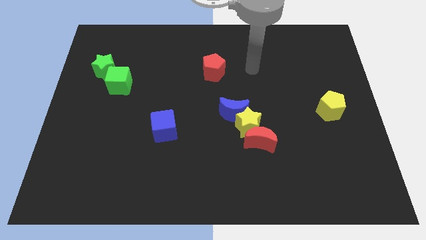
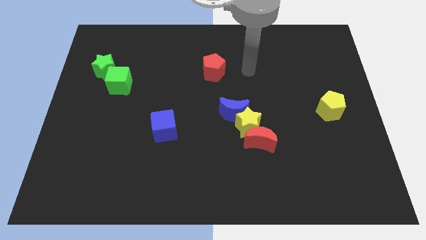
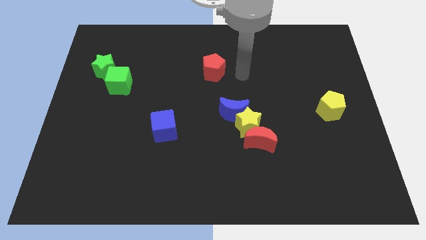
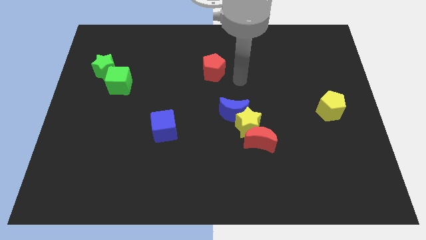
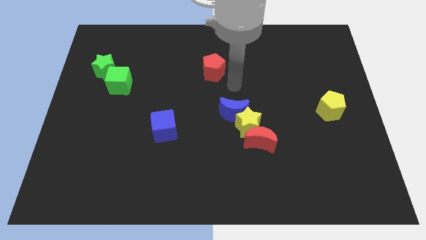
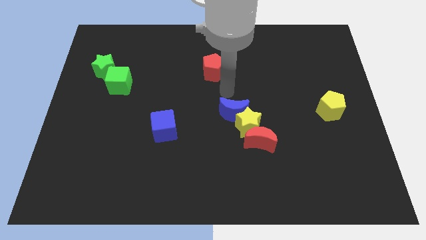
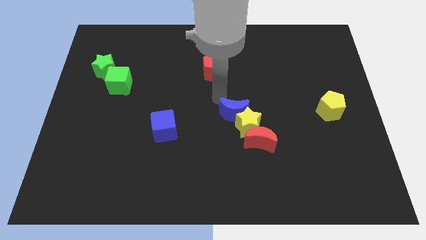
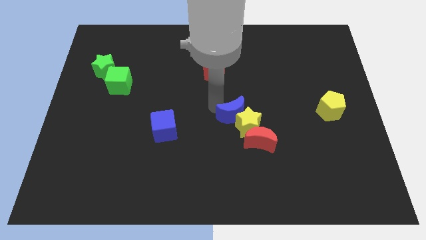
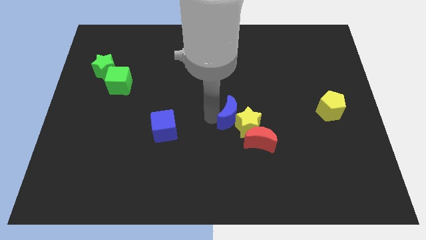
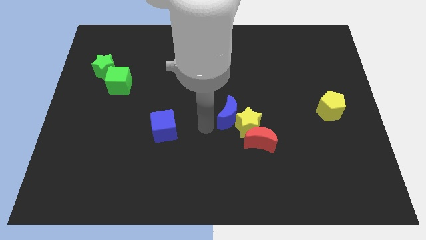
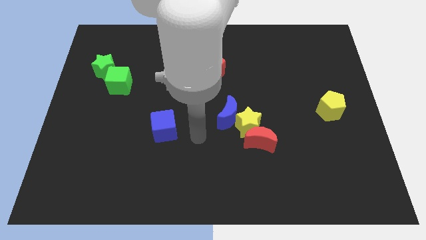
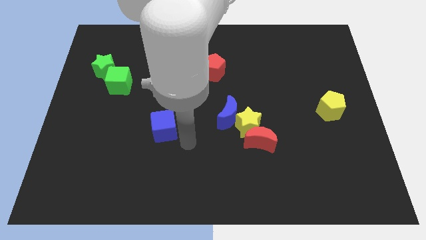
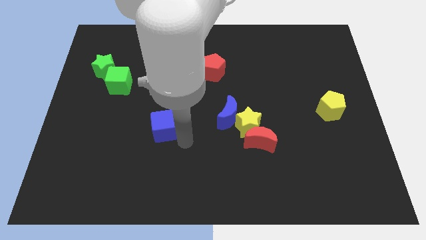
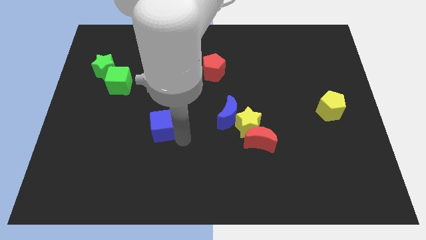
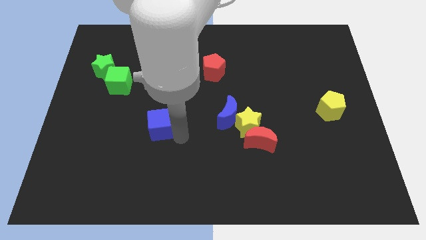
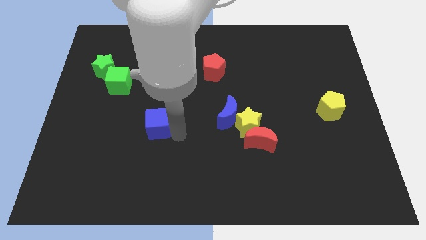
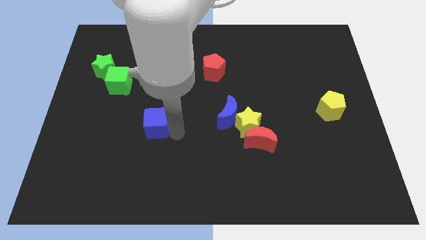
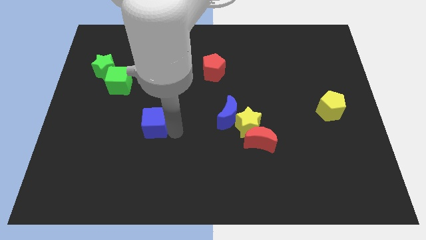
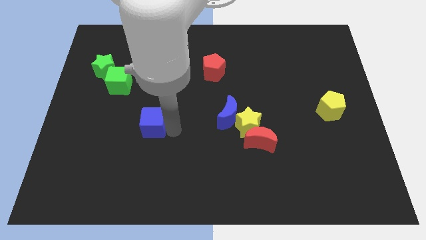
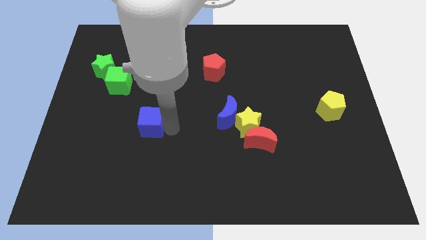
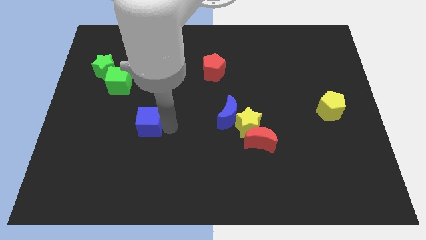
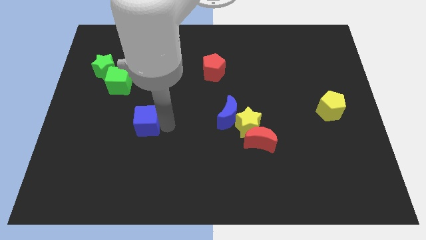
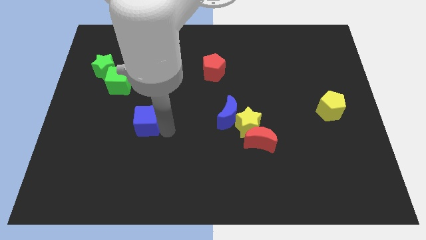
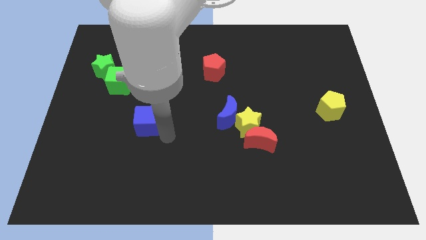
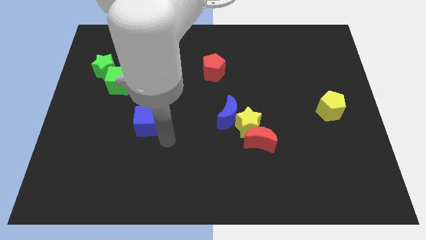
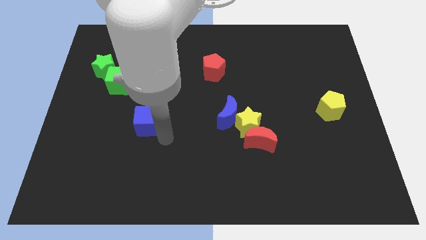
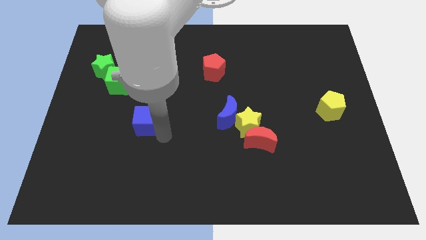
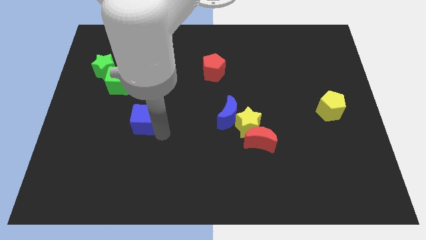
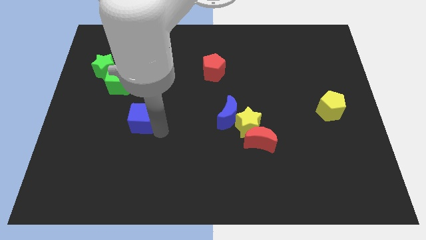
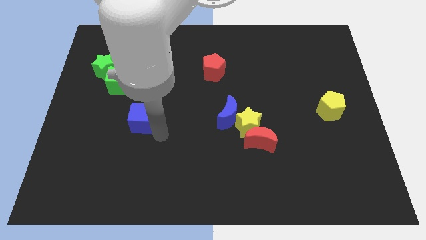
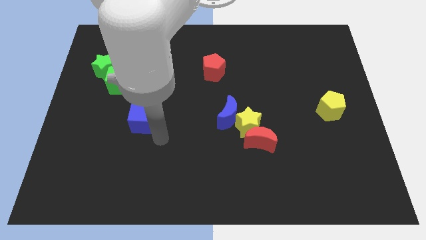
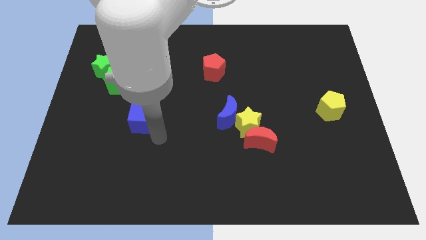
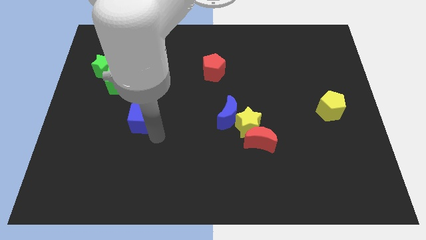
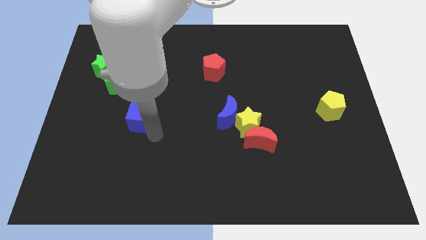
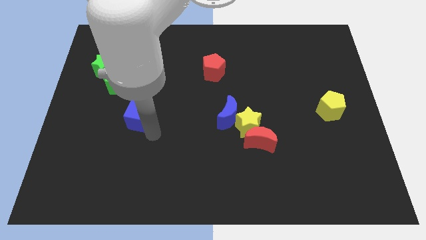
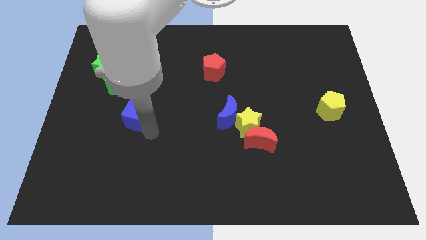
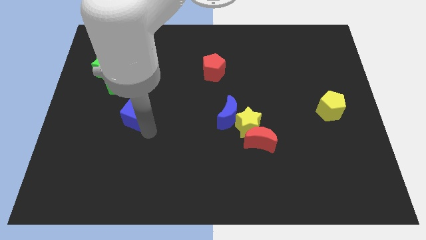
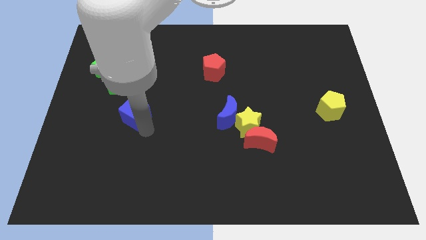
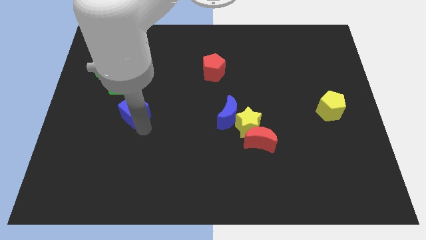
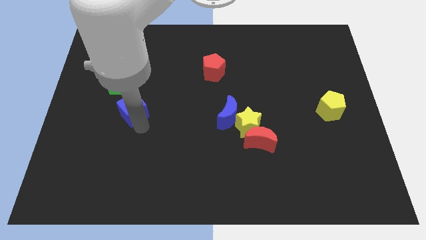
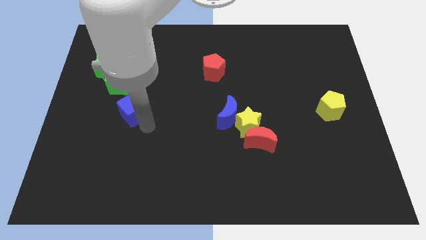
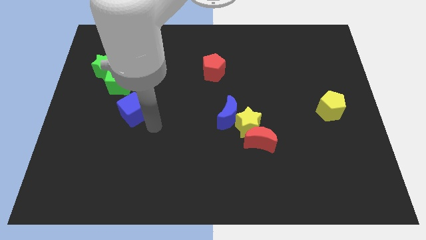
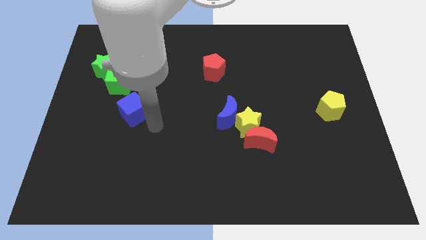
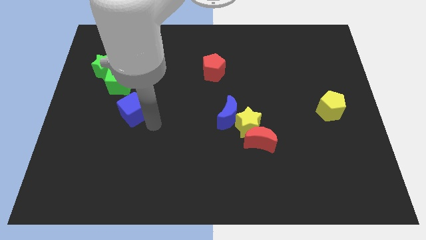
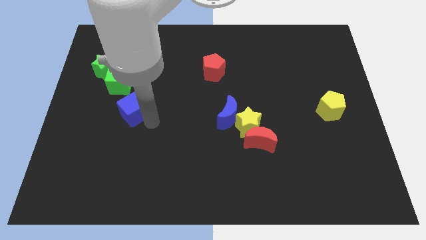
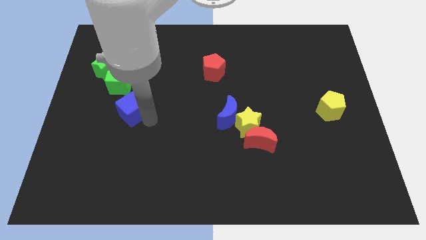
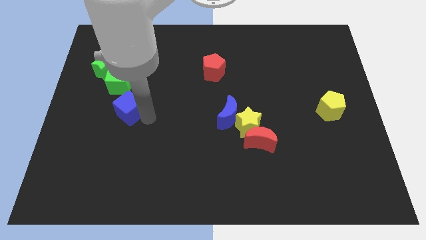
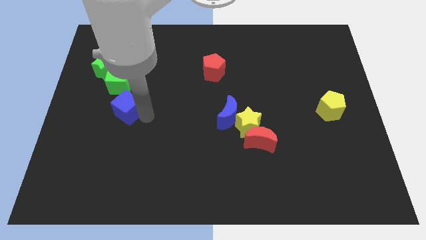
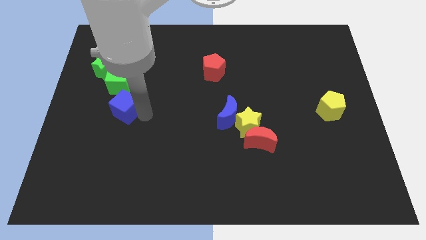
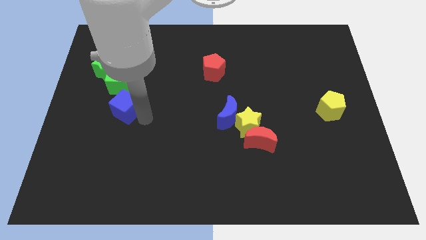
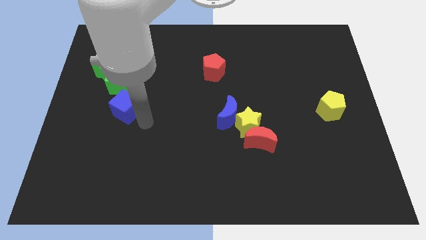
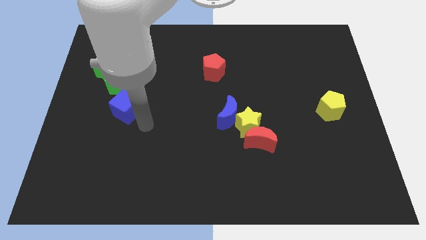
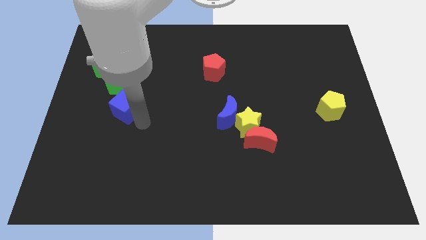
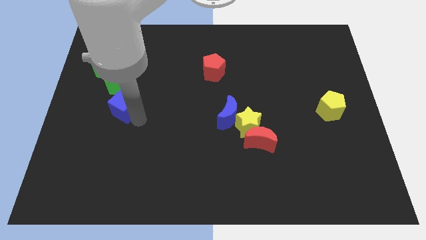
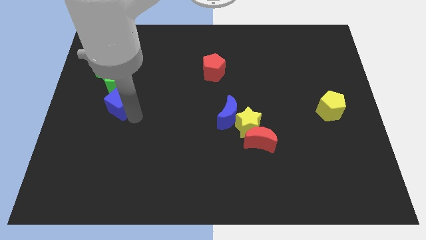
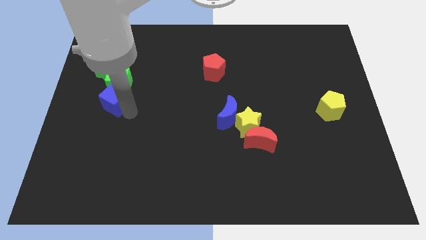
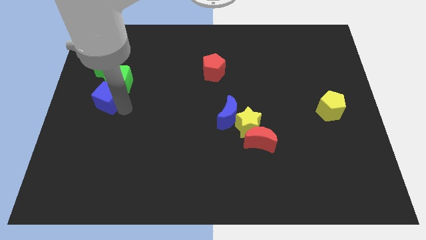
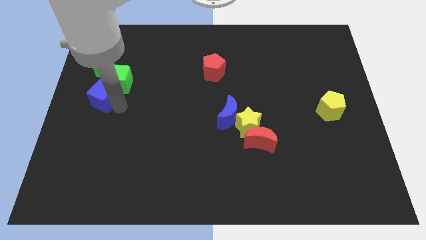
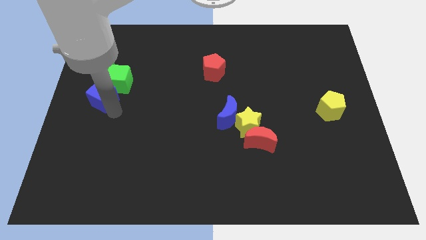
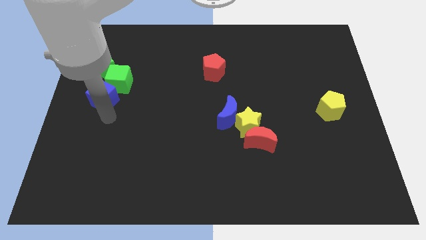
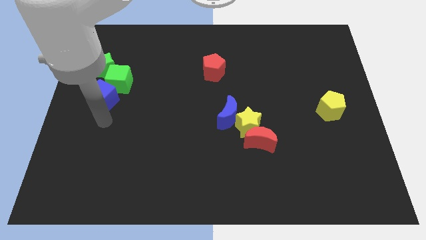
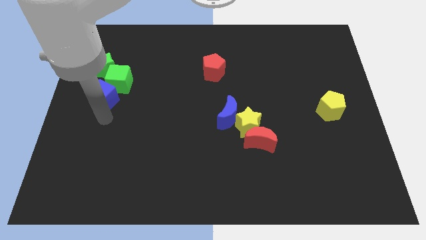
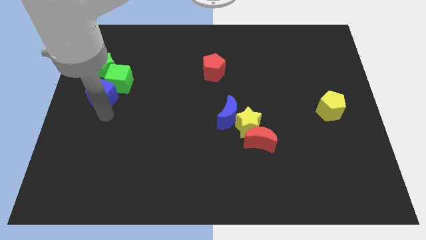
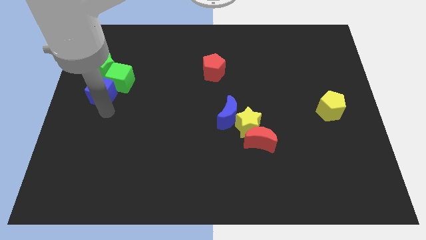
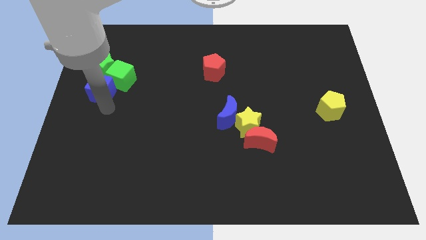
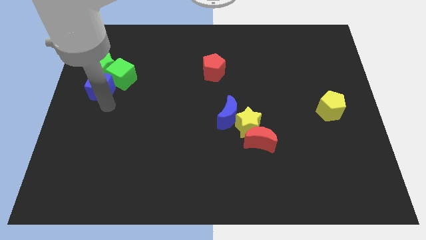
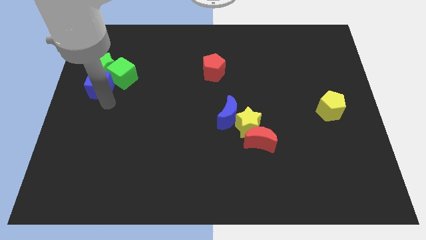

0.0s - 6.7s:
move the blue cube next to the green star
